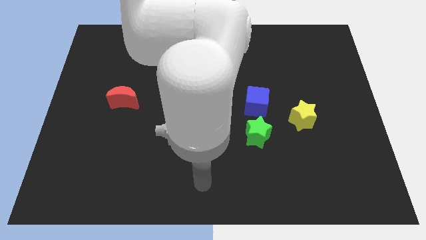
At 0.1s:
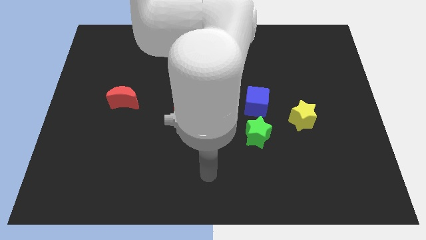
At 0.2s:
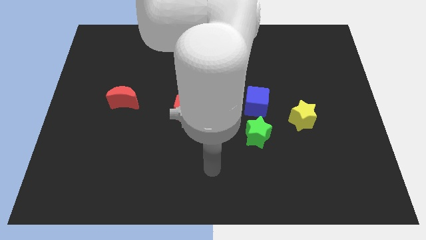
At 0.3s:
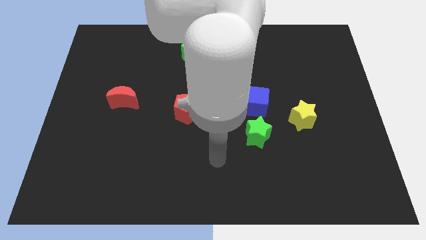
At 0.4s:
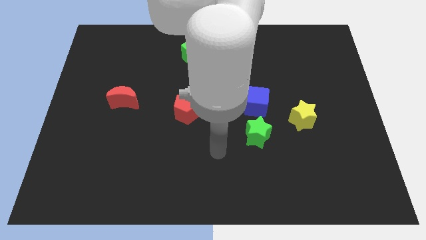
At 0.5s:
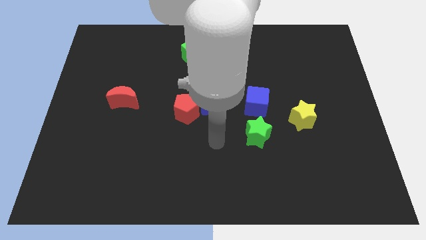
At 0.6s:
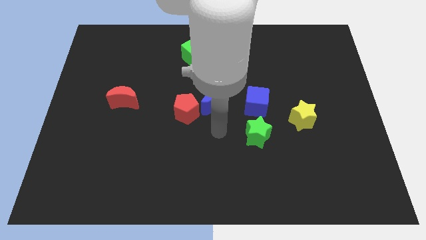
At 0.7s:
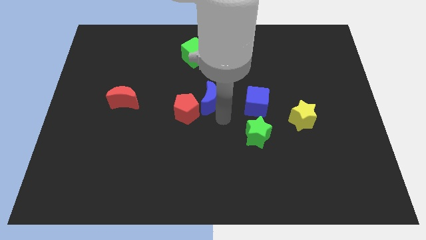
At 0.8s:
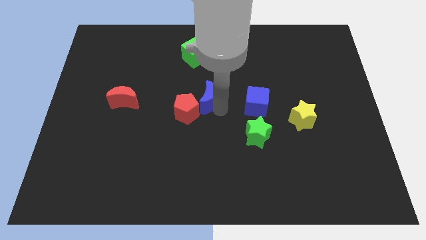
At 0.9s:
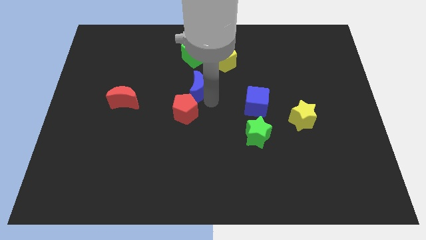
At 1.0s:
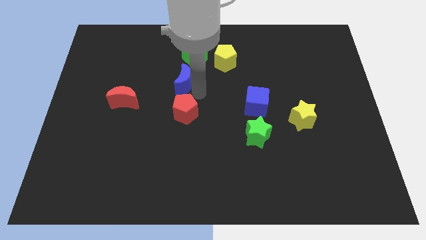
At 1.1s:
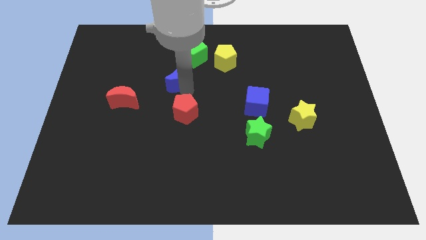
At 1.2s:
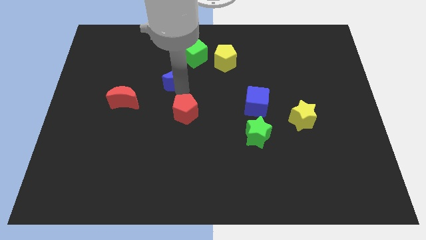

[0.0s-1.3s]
move the red pentagon away from the blue moon

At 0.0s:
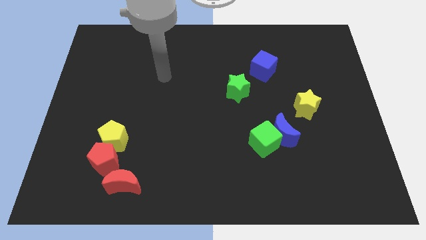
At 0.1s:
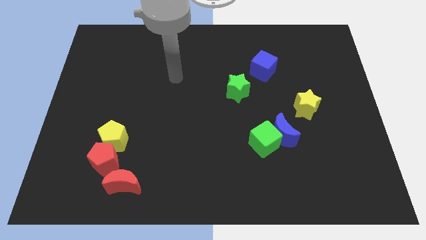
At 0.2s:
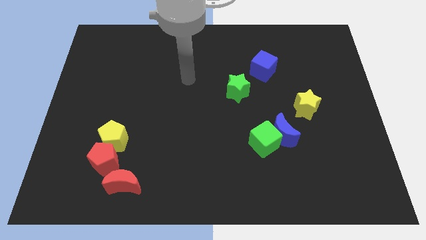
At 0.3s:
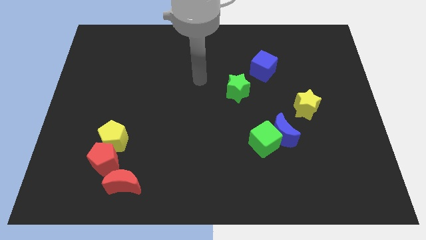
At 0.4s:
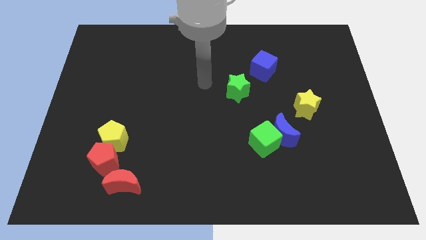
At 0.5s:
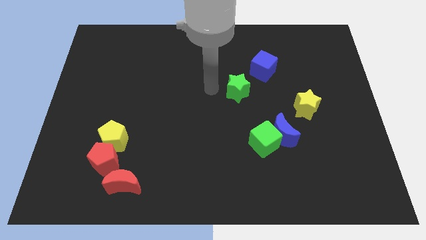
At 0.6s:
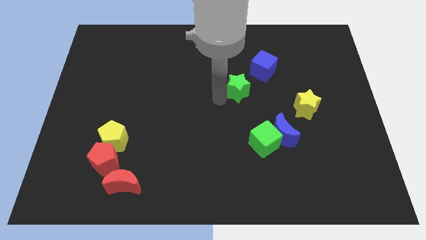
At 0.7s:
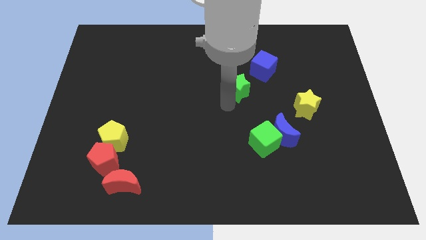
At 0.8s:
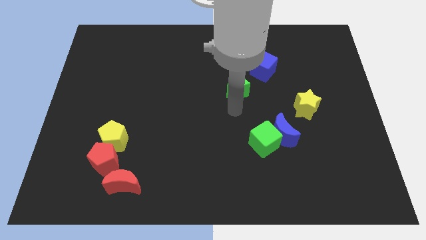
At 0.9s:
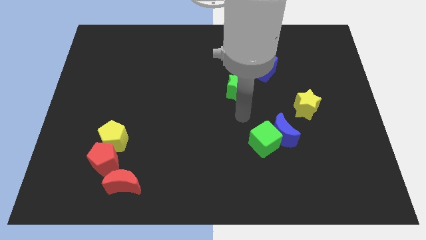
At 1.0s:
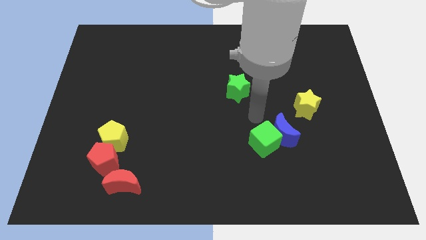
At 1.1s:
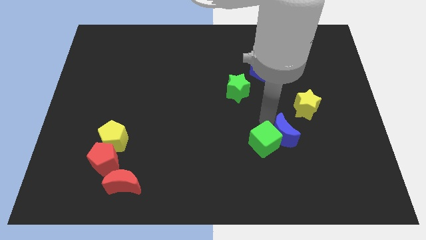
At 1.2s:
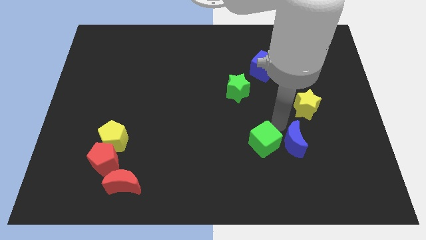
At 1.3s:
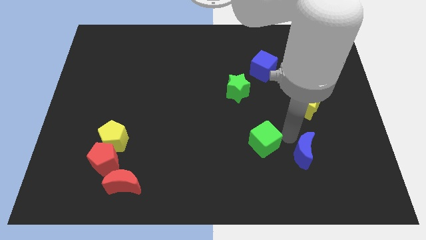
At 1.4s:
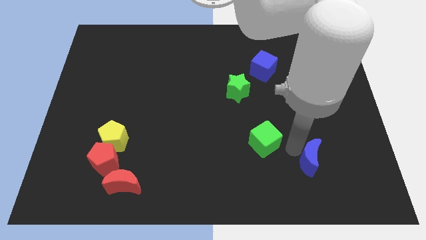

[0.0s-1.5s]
pull the green cube apart from the blue moon

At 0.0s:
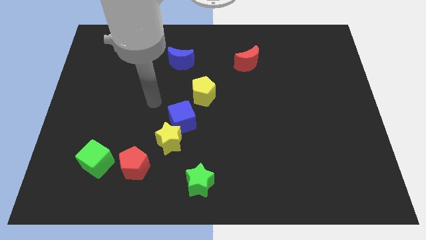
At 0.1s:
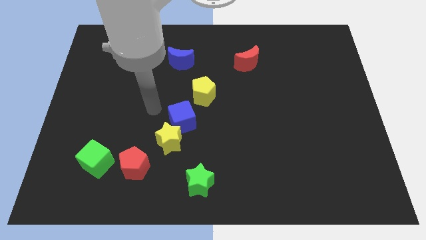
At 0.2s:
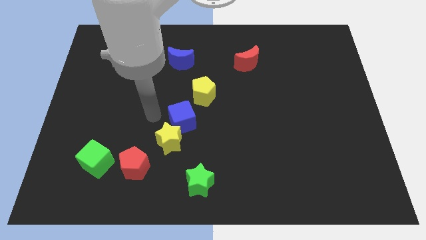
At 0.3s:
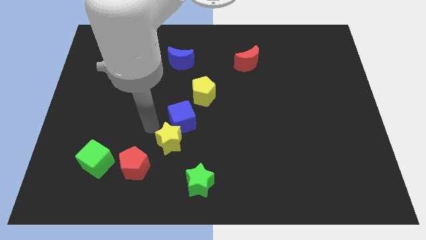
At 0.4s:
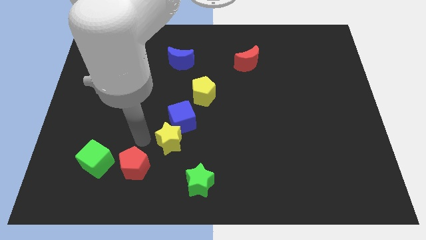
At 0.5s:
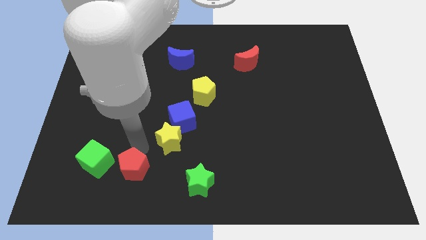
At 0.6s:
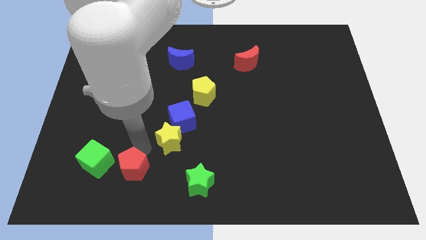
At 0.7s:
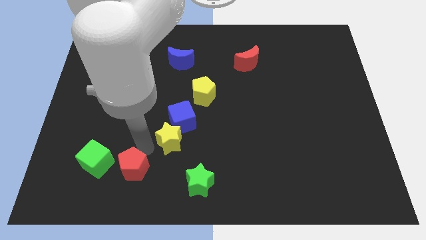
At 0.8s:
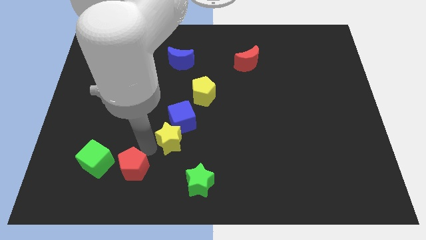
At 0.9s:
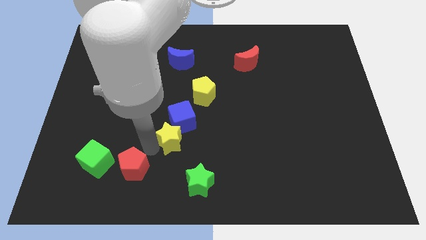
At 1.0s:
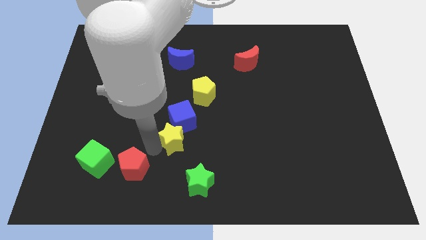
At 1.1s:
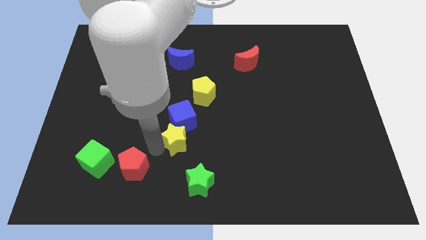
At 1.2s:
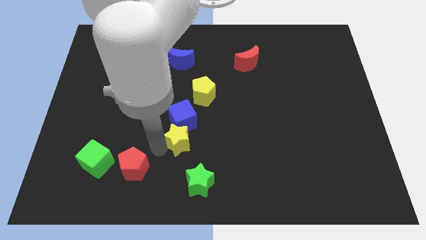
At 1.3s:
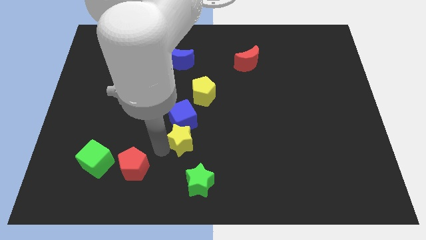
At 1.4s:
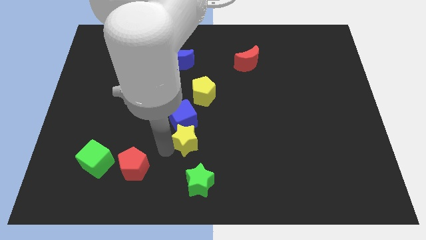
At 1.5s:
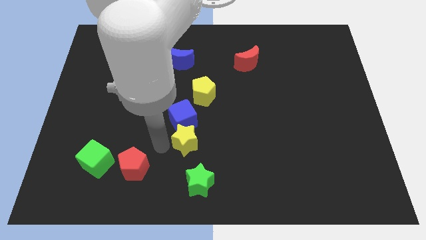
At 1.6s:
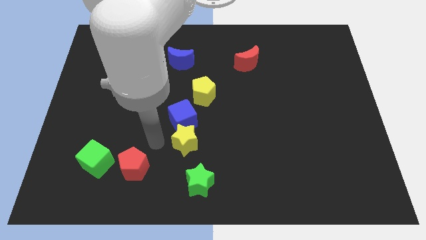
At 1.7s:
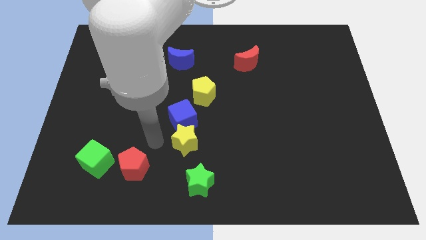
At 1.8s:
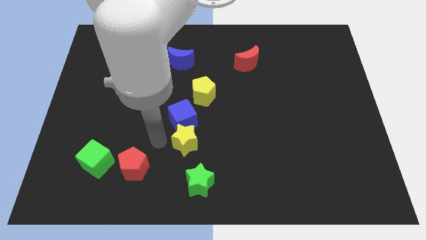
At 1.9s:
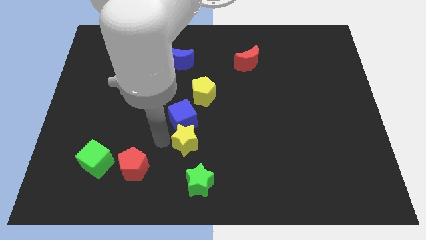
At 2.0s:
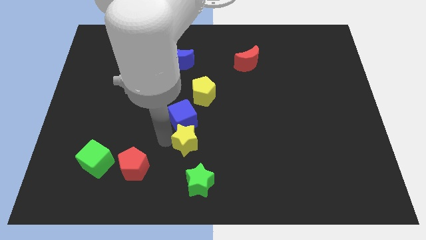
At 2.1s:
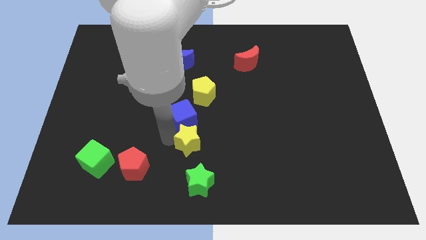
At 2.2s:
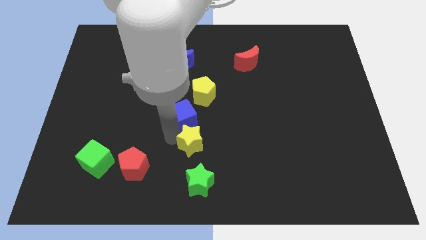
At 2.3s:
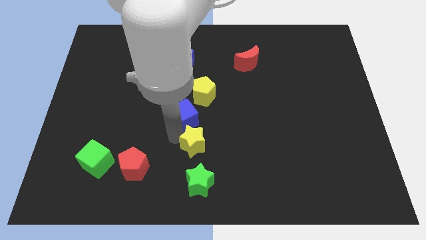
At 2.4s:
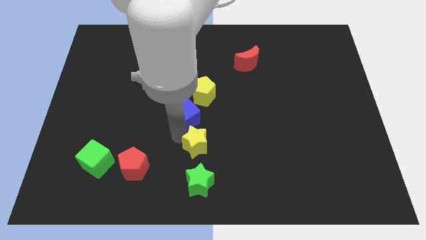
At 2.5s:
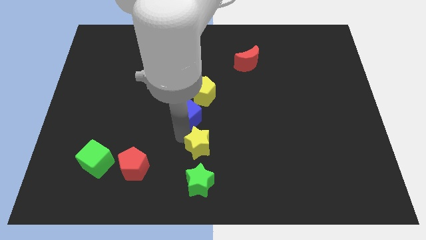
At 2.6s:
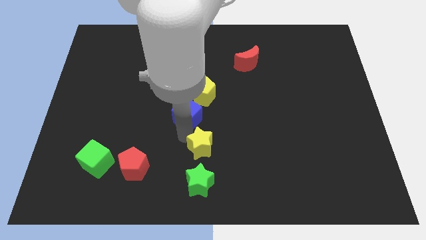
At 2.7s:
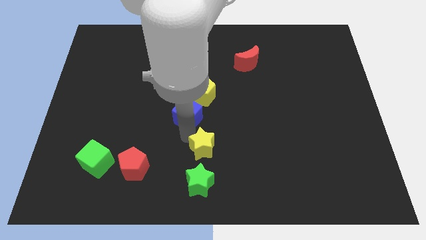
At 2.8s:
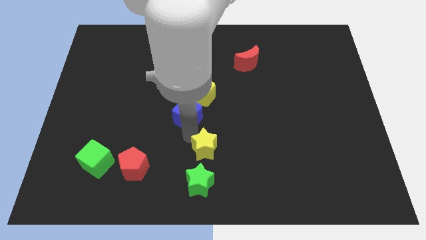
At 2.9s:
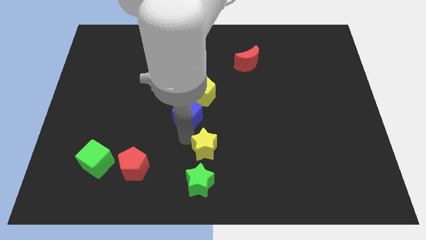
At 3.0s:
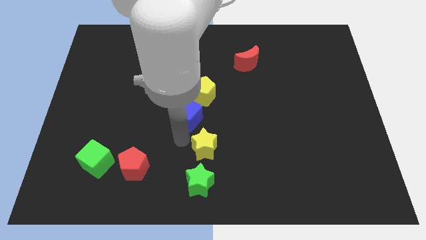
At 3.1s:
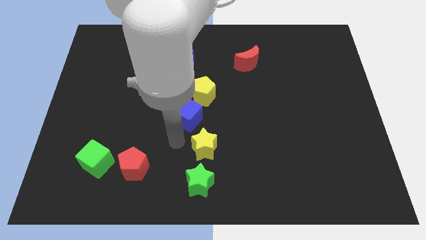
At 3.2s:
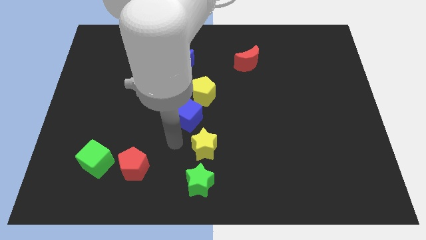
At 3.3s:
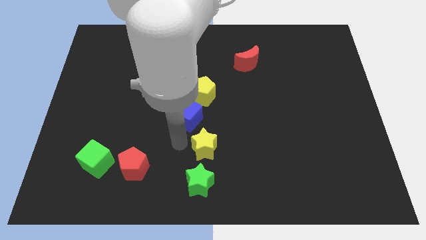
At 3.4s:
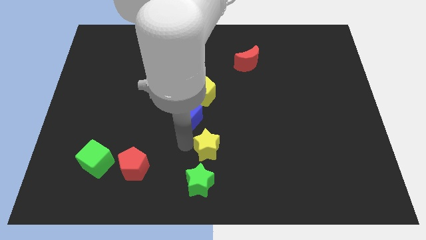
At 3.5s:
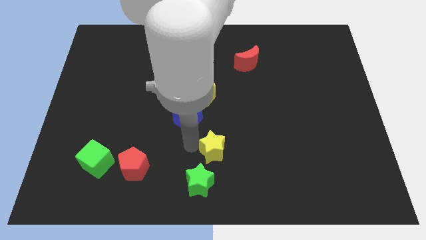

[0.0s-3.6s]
move the yellow star away from the blue cube and red pentagon

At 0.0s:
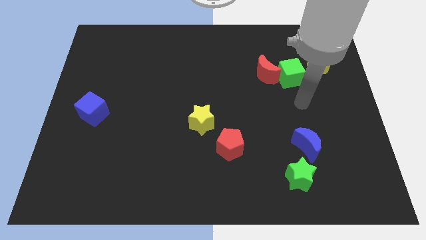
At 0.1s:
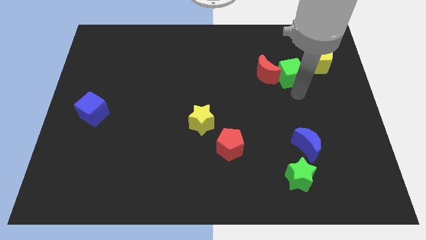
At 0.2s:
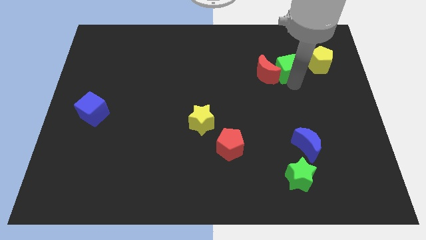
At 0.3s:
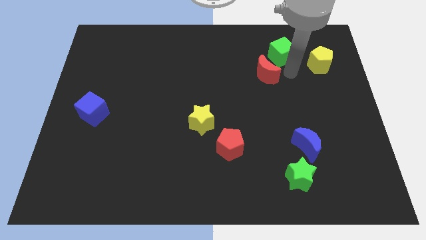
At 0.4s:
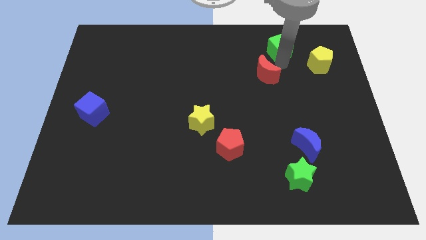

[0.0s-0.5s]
move the red moon away from the green cube

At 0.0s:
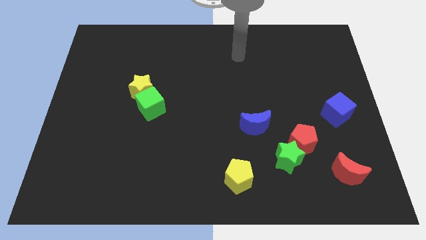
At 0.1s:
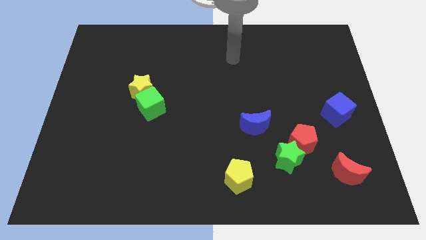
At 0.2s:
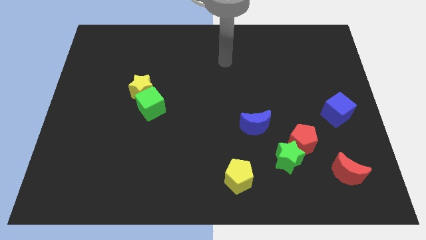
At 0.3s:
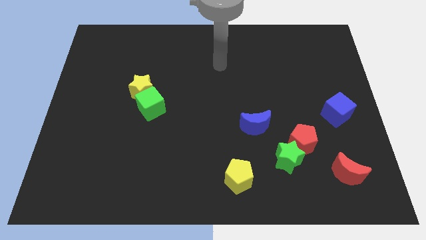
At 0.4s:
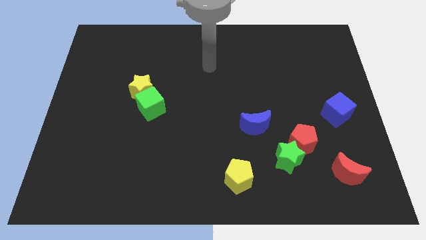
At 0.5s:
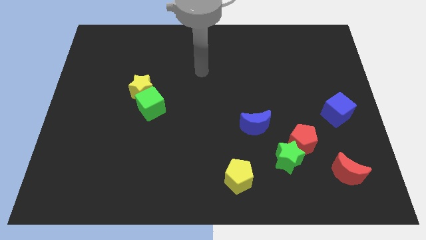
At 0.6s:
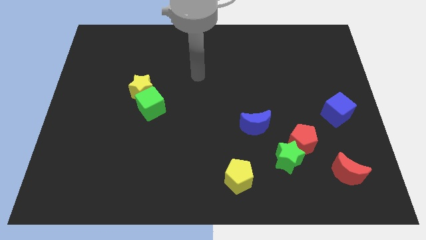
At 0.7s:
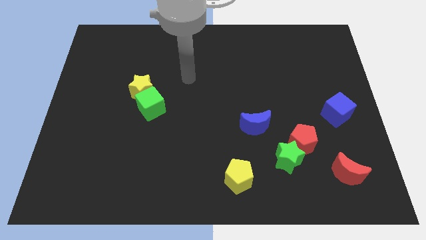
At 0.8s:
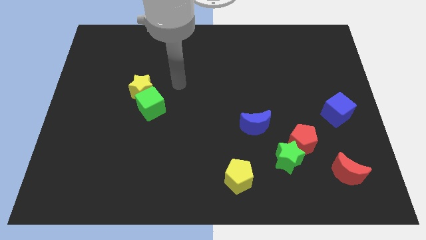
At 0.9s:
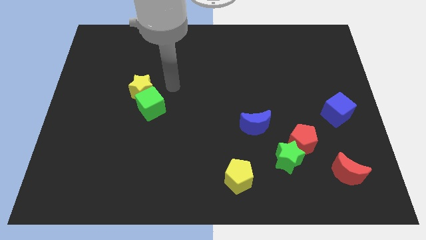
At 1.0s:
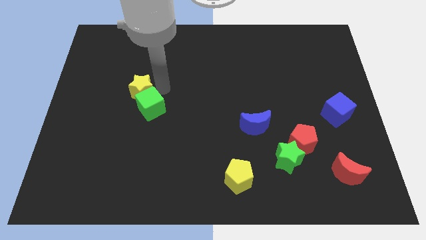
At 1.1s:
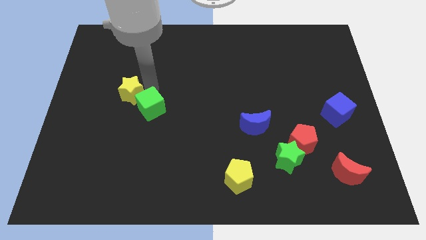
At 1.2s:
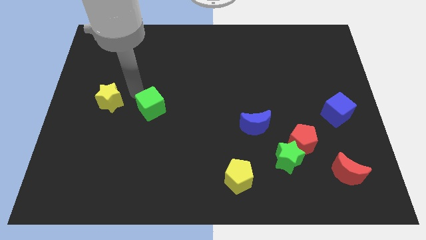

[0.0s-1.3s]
separate the green cube from the yellow star

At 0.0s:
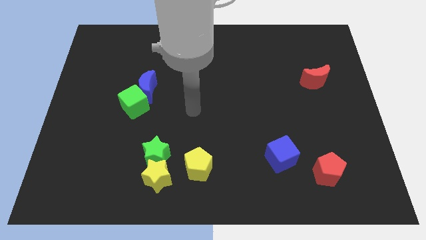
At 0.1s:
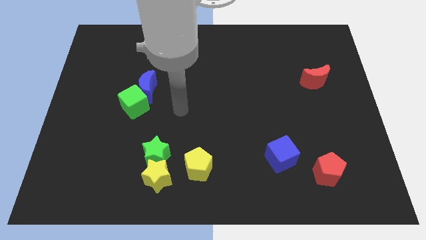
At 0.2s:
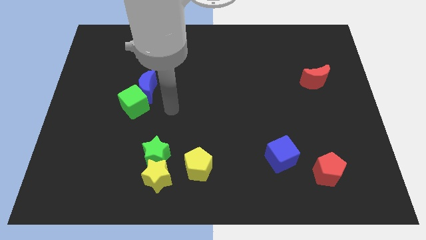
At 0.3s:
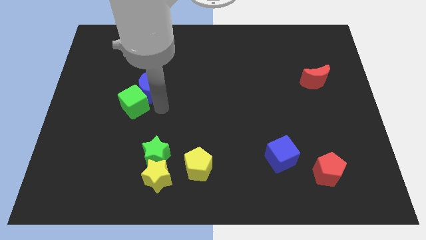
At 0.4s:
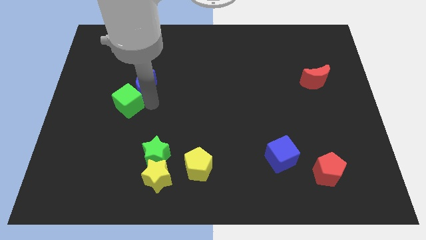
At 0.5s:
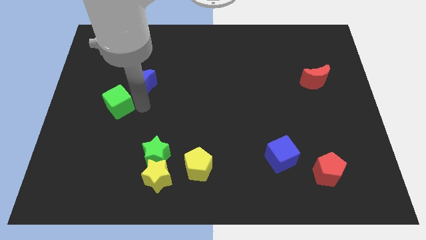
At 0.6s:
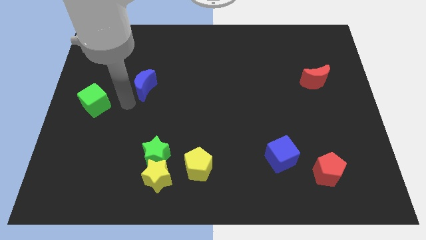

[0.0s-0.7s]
separate the blue moon from the green cube

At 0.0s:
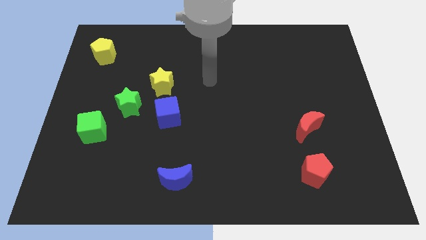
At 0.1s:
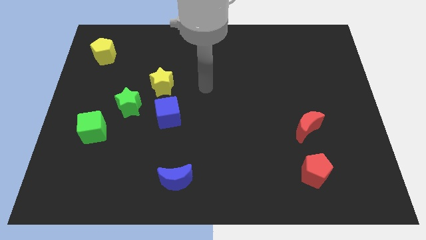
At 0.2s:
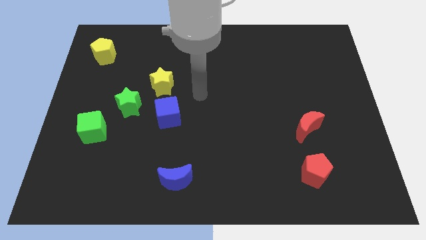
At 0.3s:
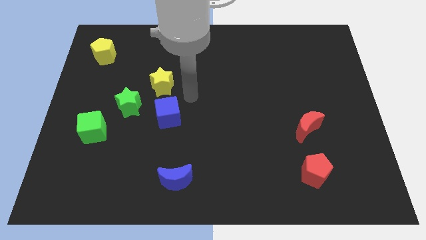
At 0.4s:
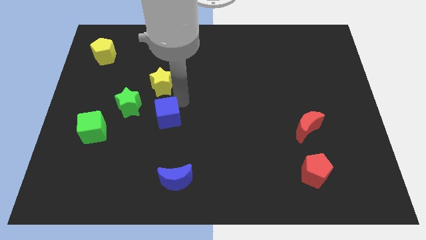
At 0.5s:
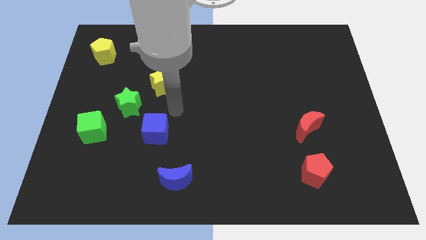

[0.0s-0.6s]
pull the yellow star apart from the green star and blue cube
